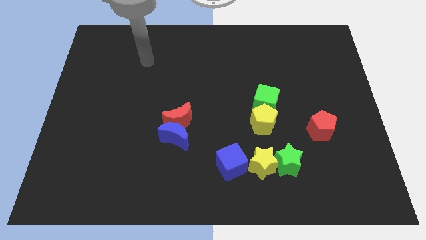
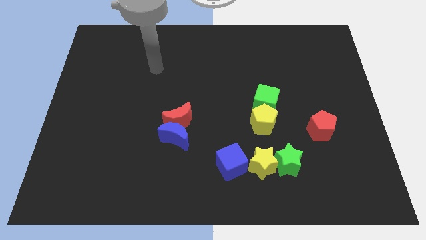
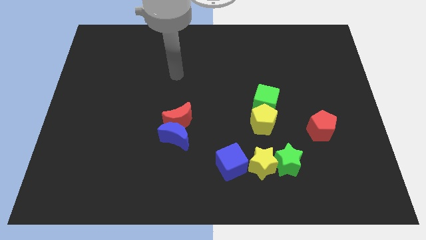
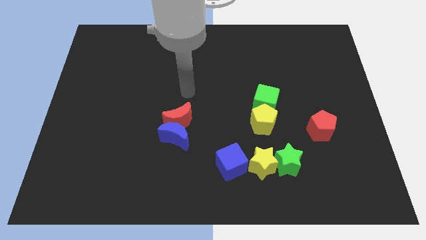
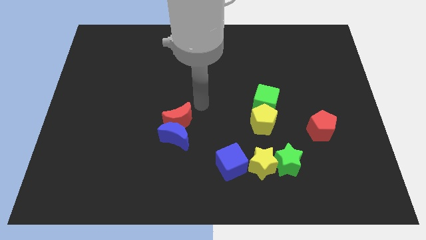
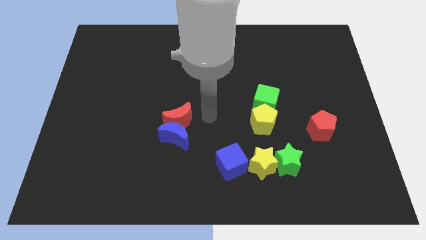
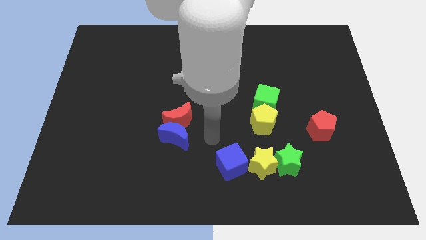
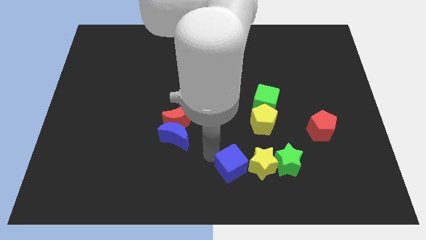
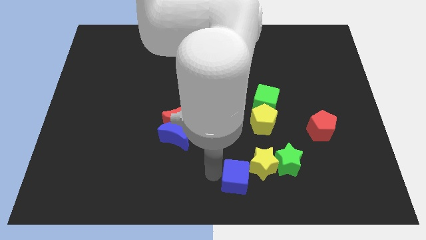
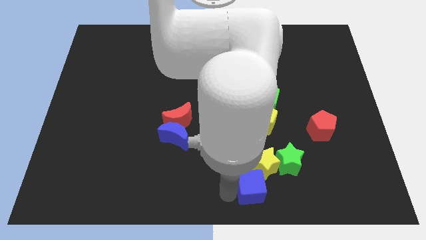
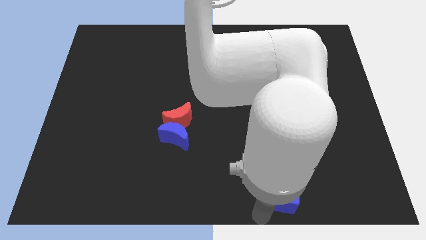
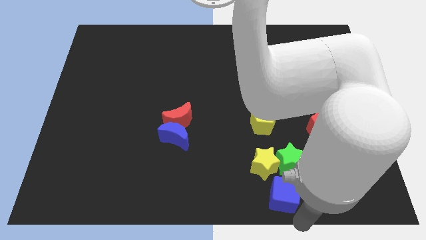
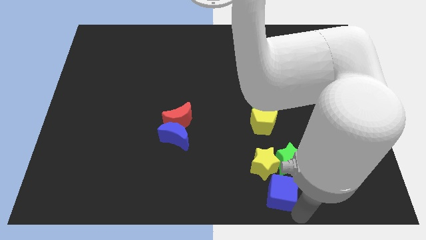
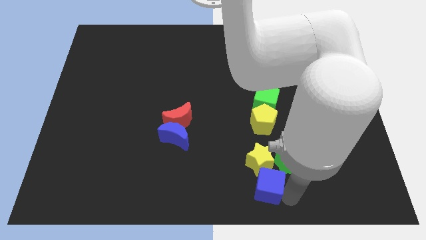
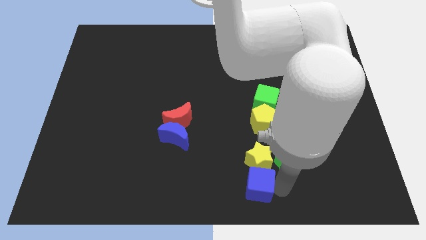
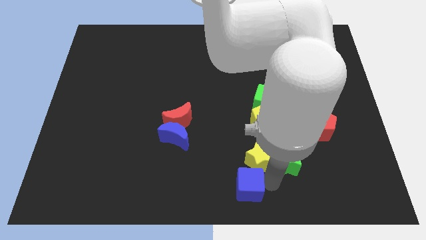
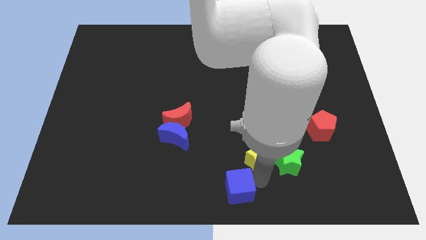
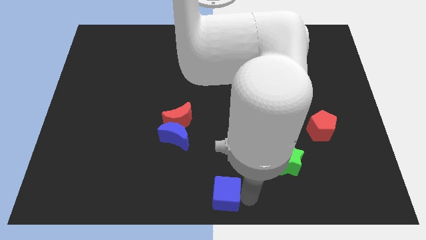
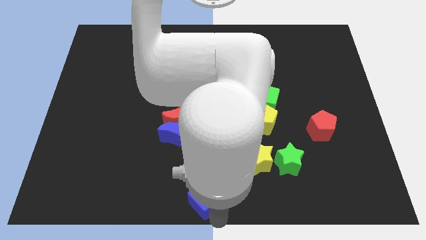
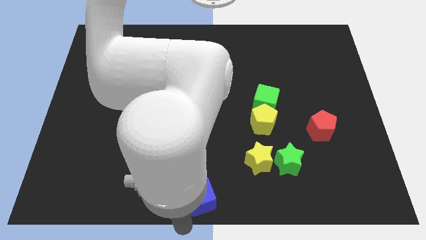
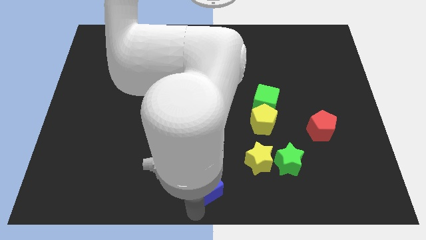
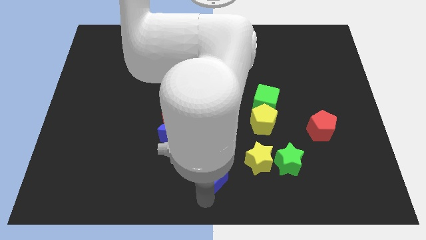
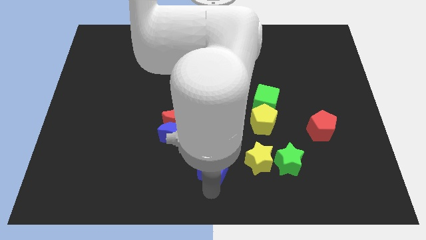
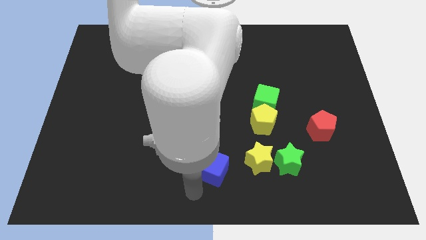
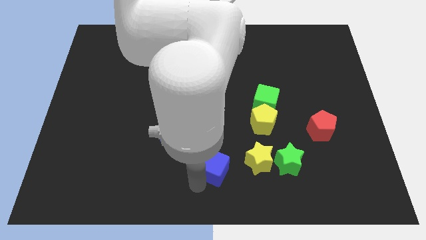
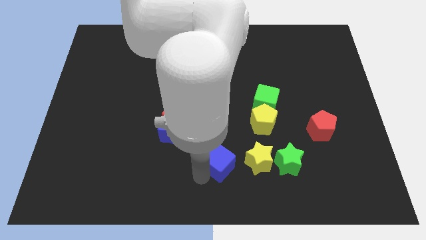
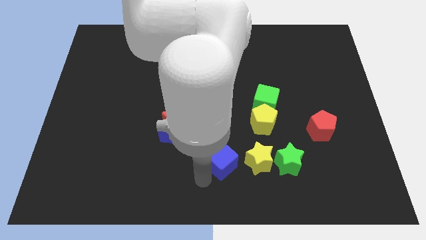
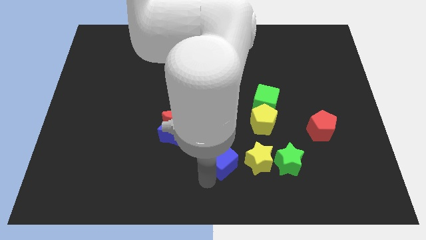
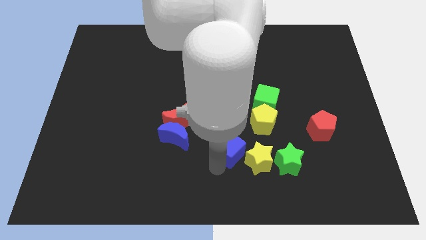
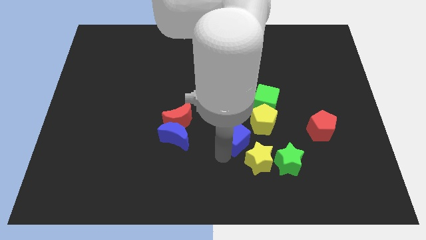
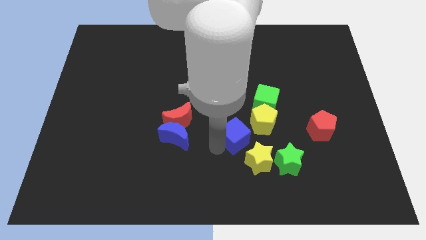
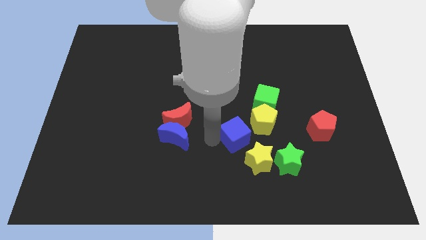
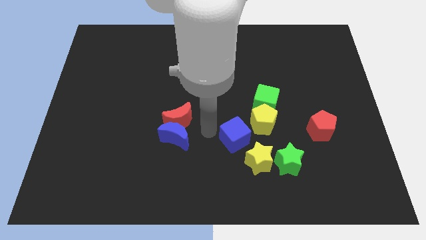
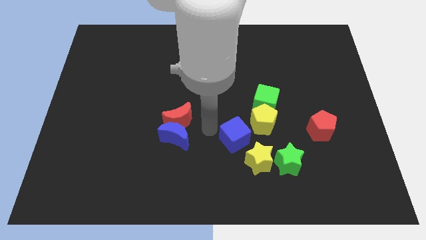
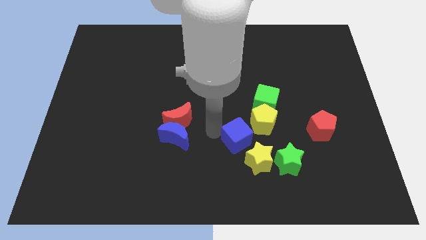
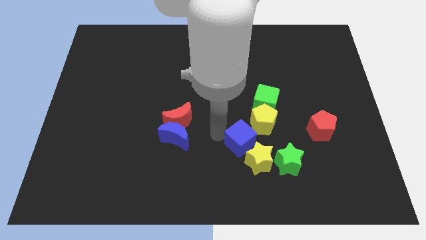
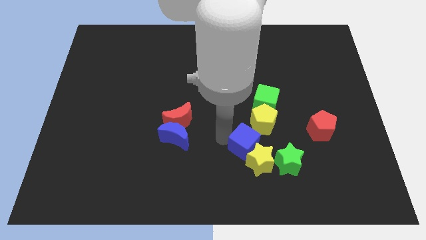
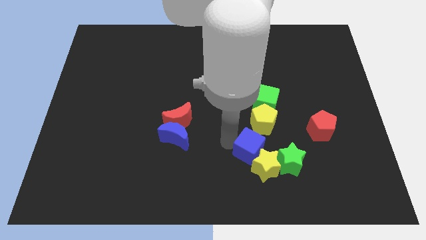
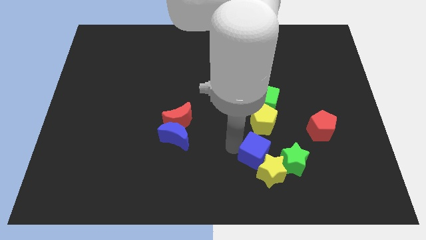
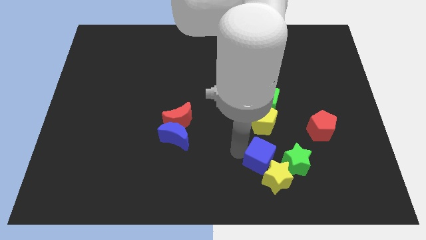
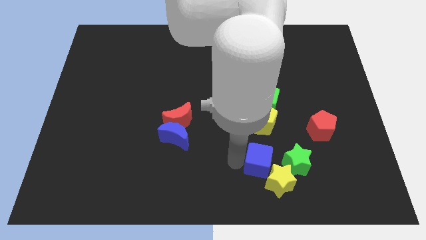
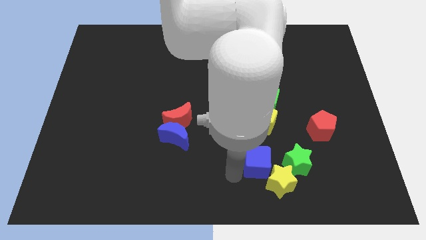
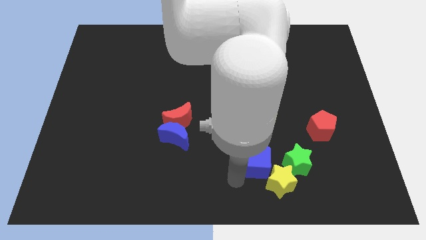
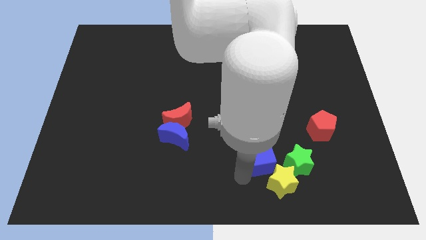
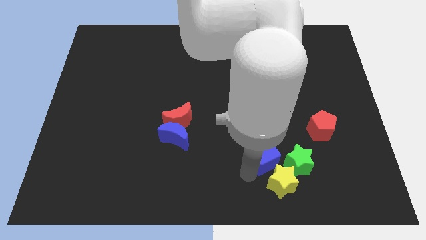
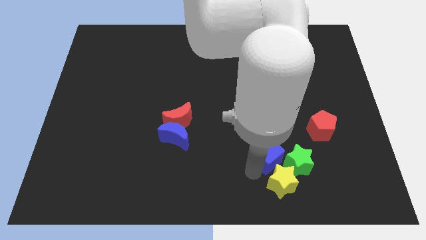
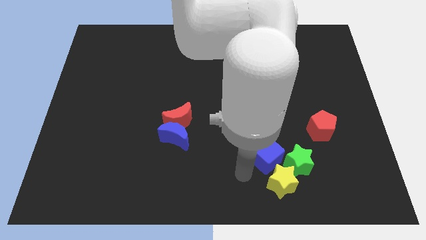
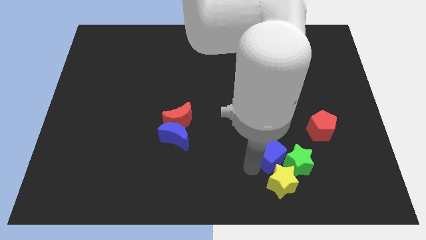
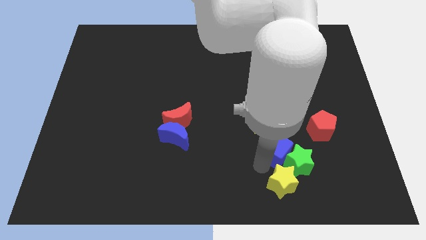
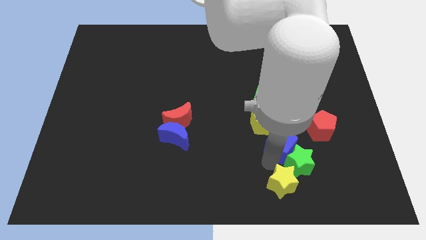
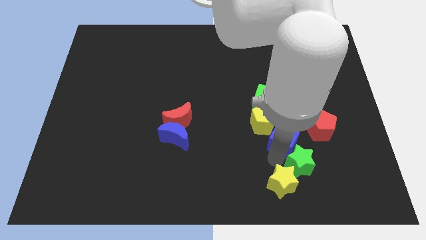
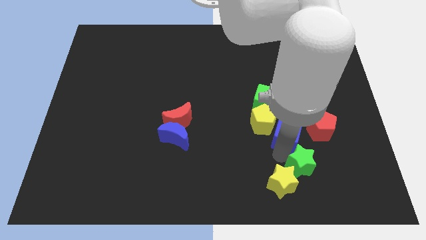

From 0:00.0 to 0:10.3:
move the blue cube to the bottom right side of the green cube
